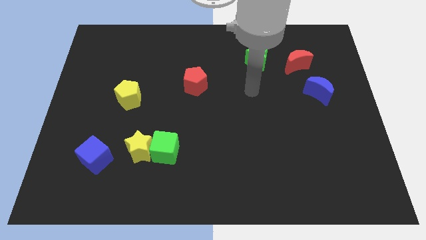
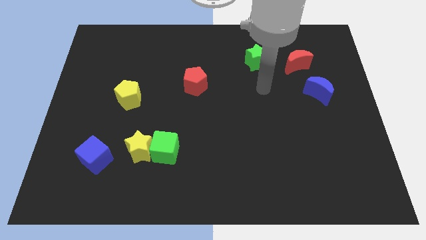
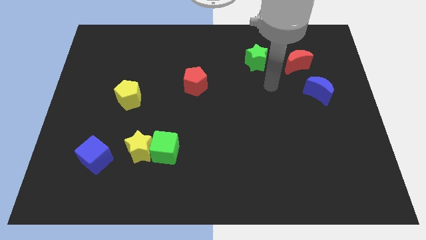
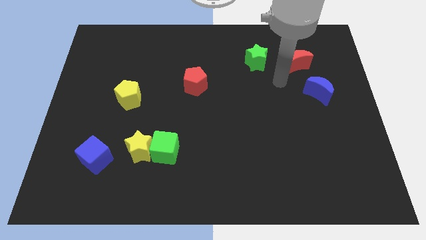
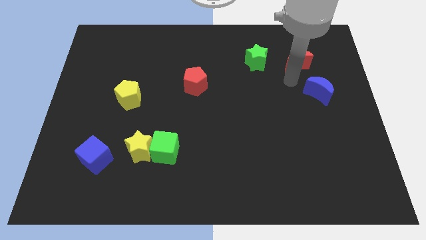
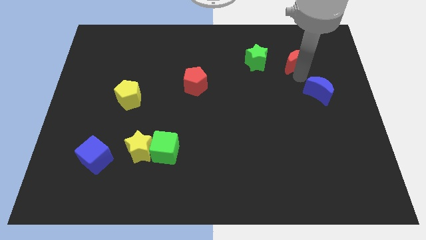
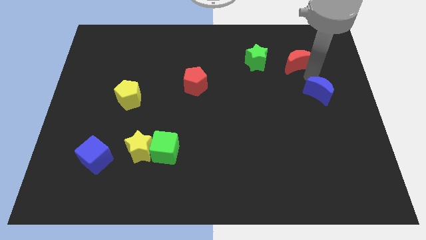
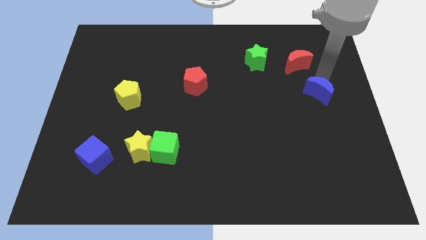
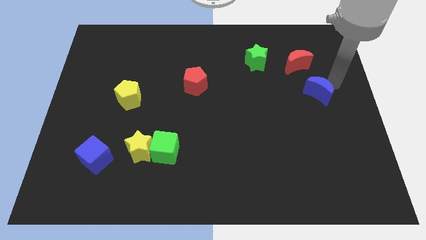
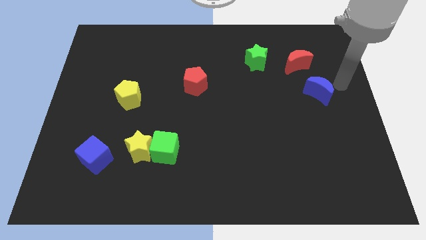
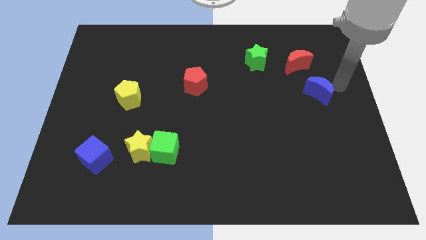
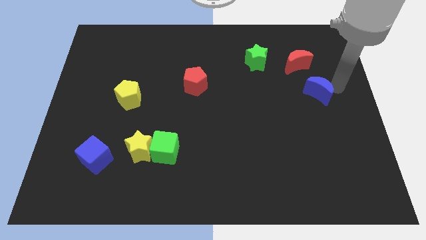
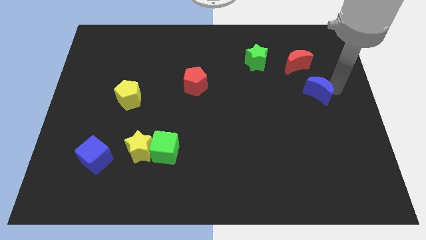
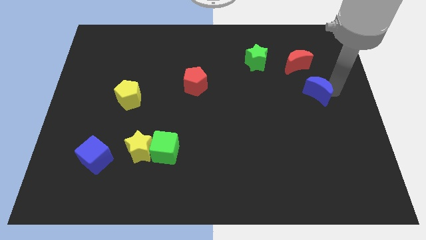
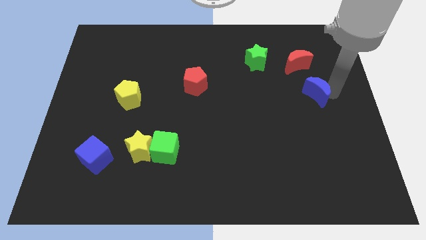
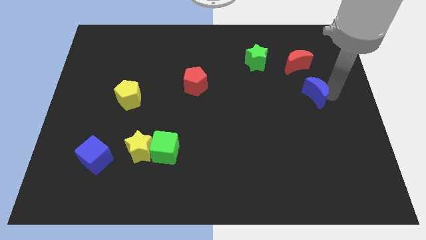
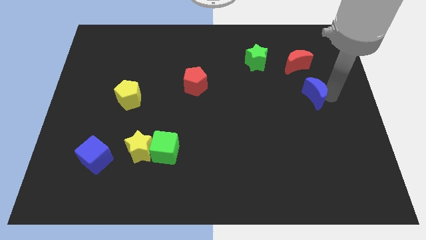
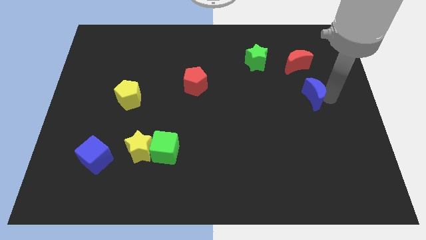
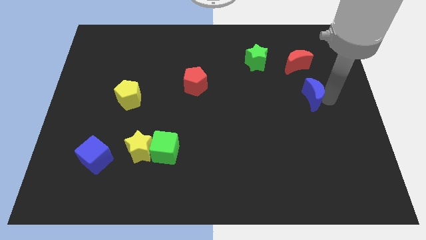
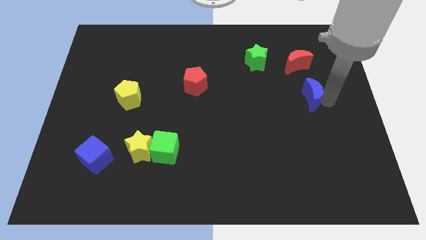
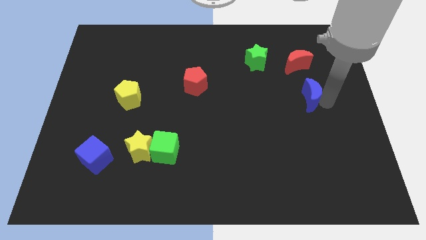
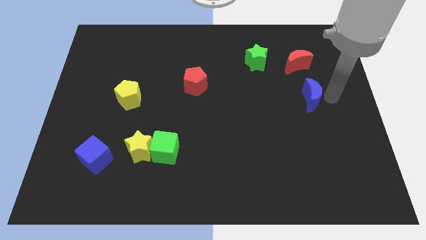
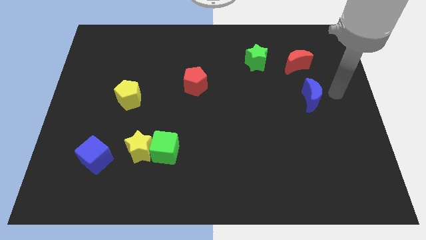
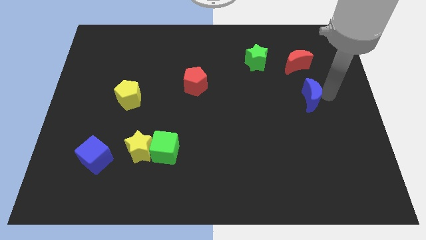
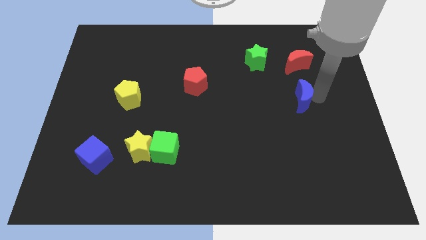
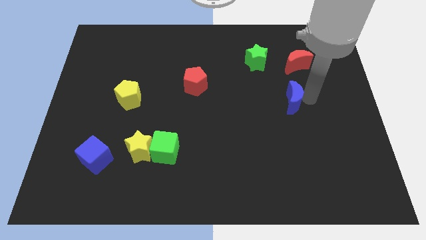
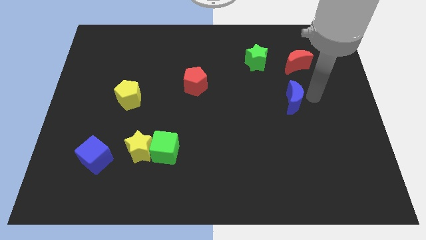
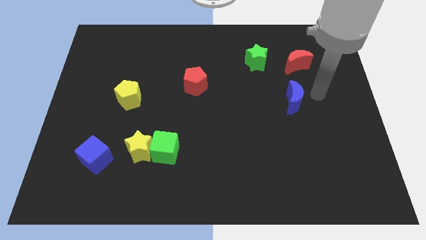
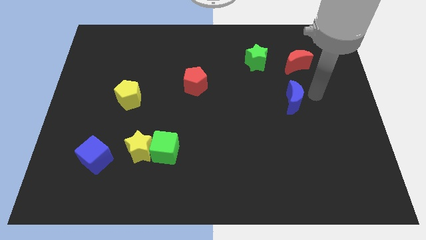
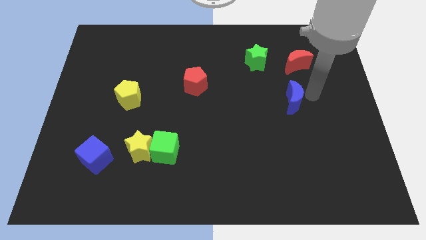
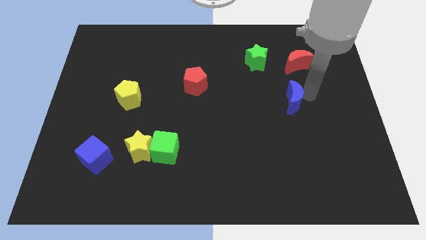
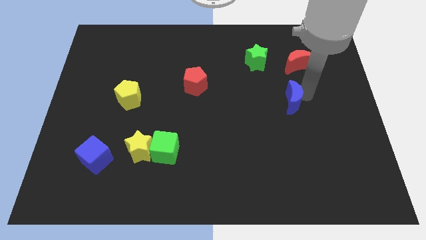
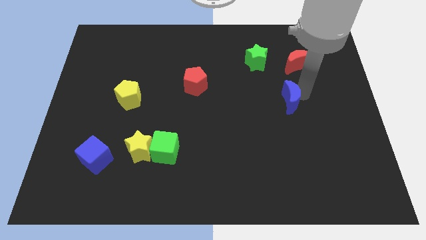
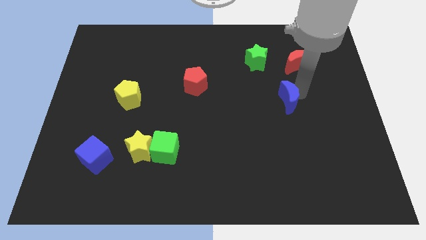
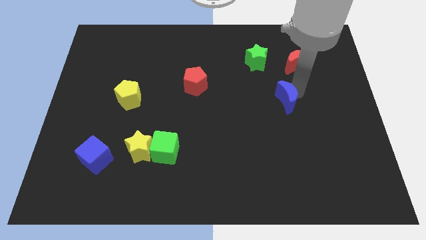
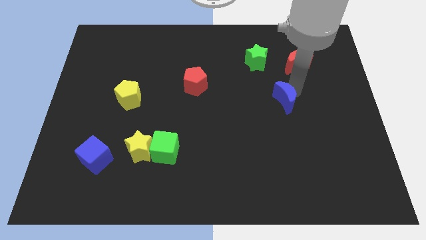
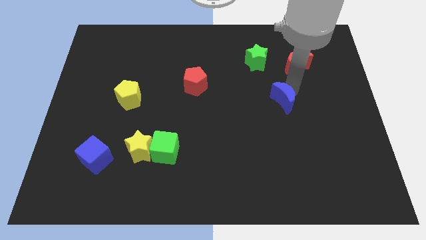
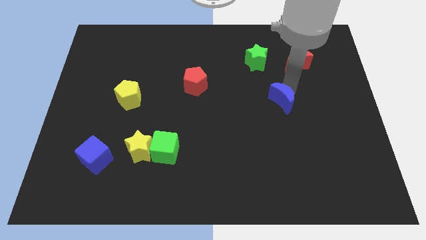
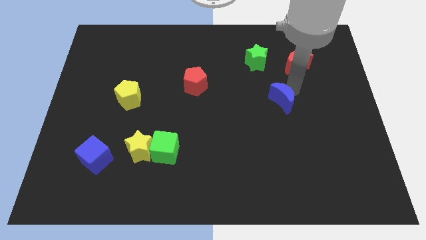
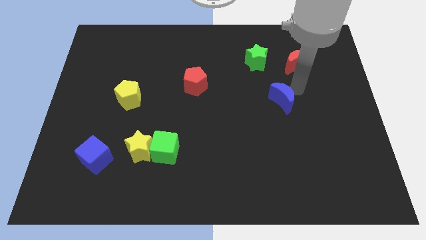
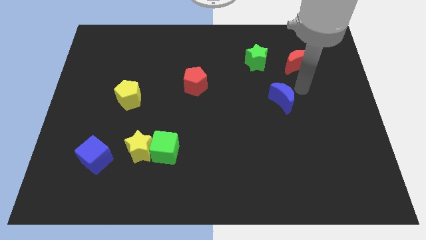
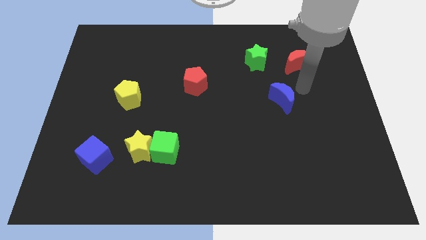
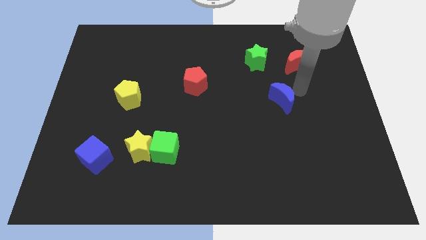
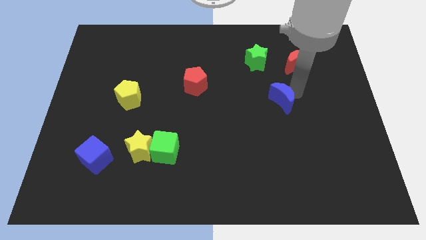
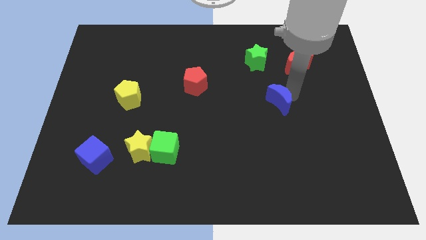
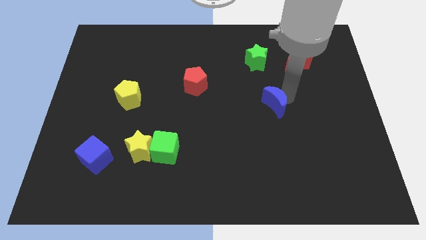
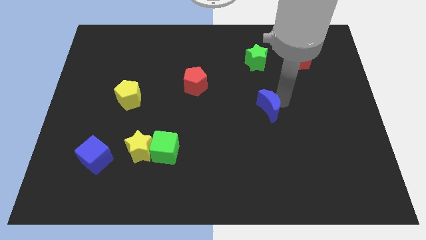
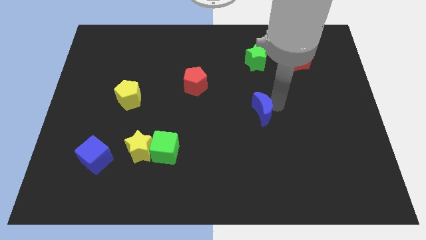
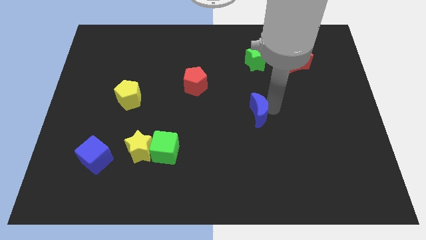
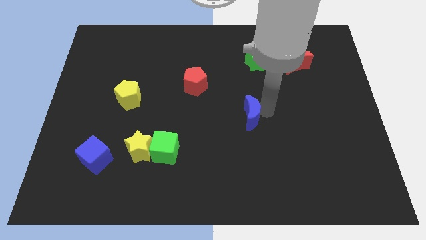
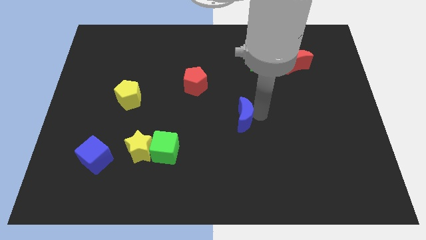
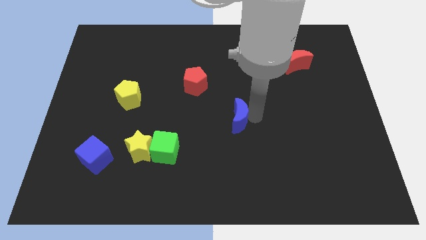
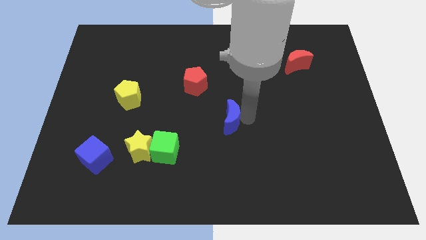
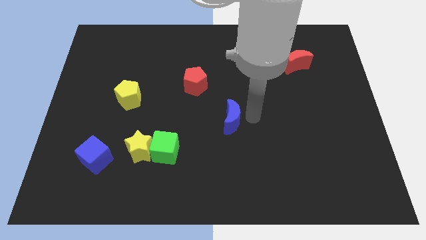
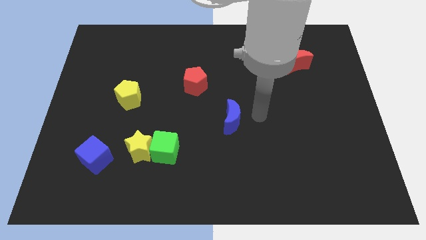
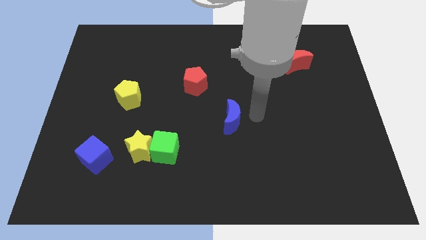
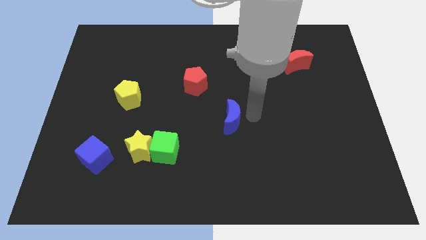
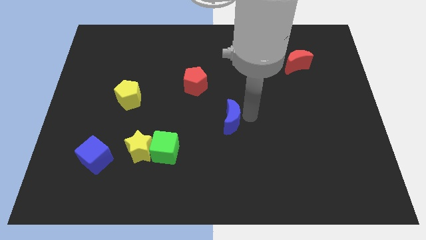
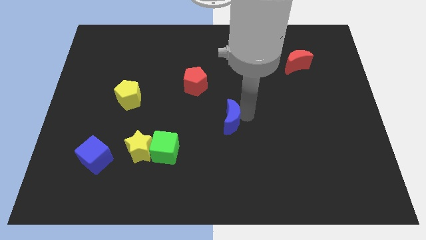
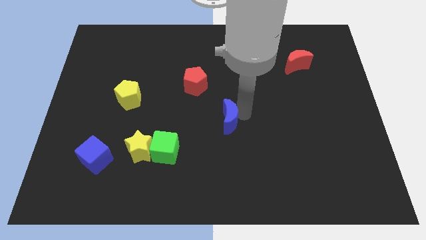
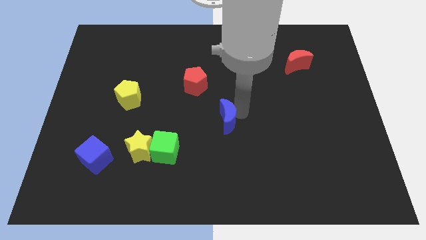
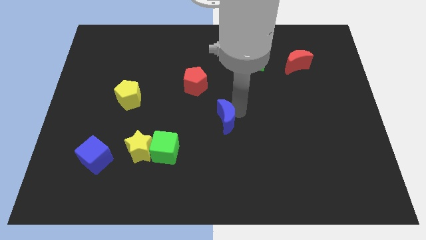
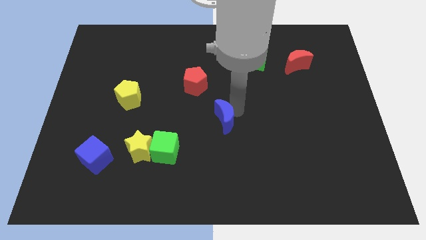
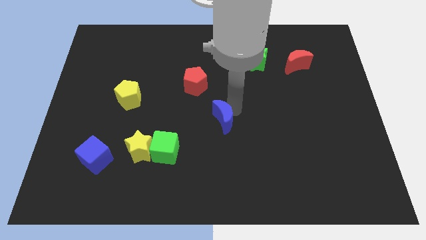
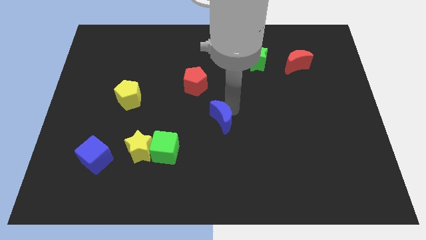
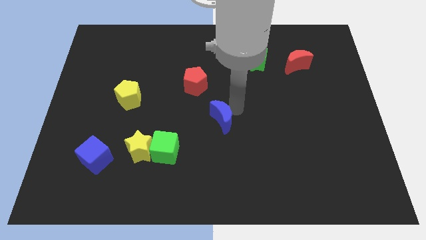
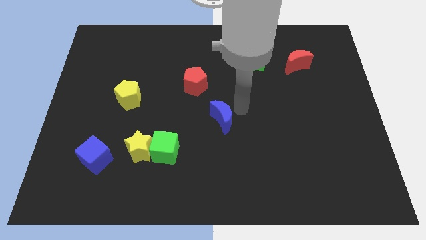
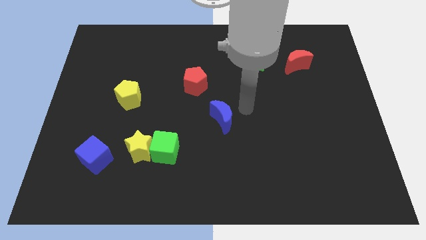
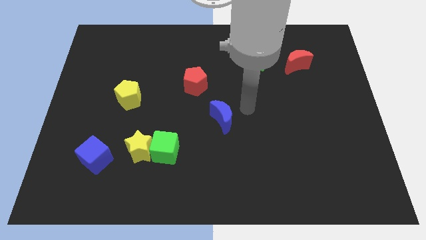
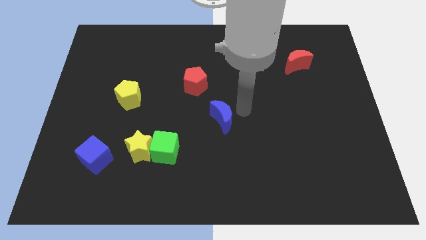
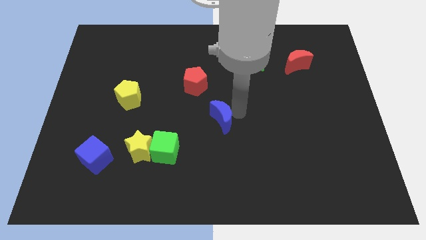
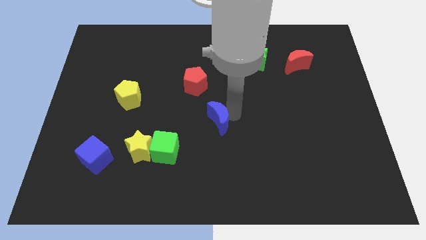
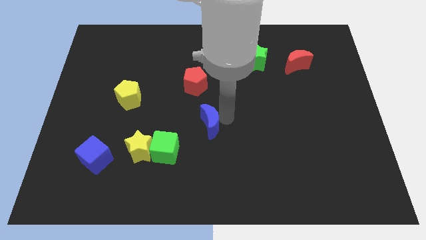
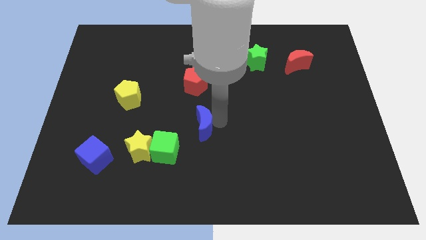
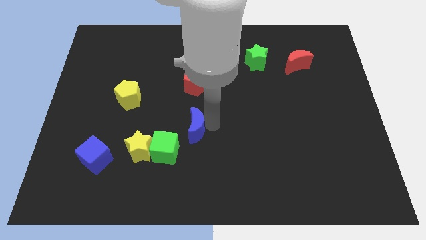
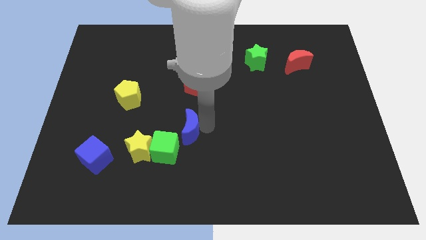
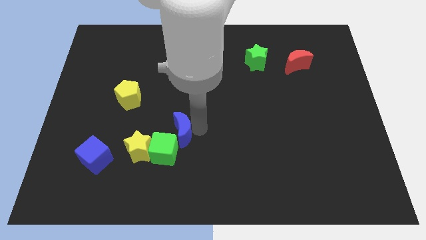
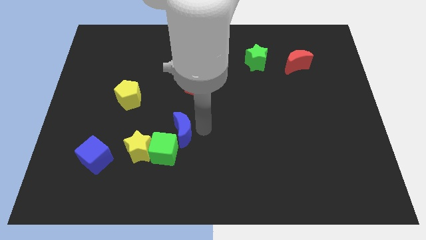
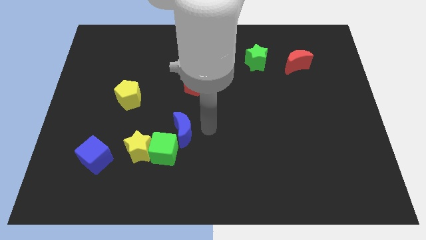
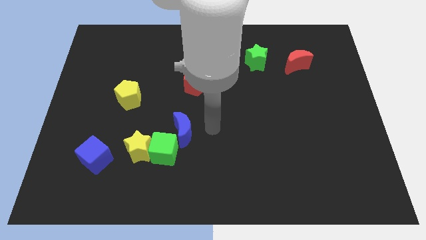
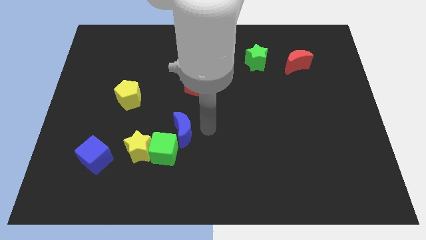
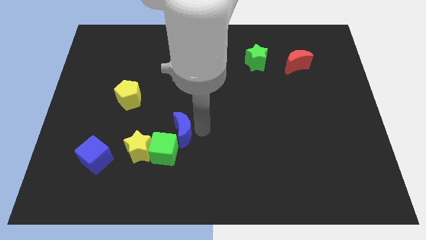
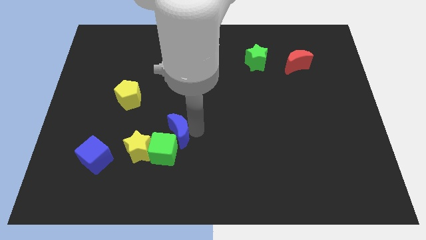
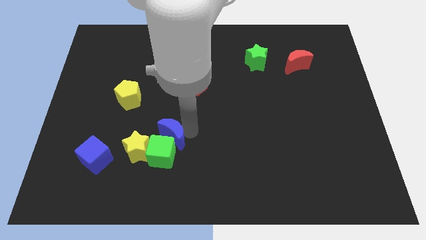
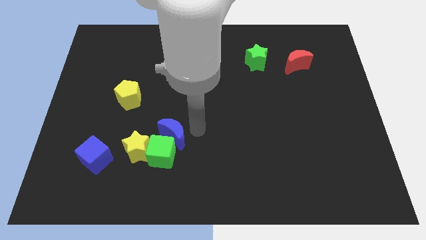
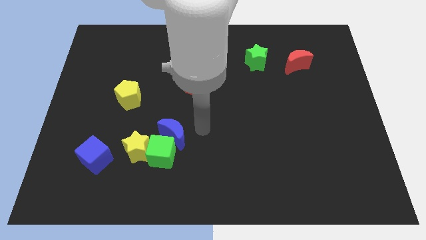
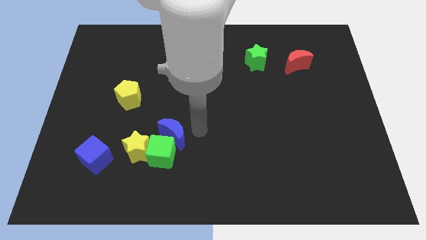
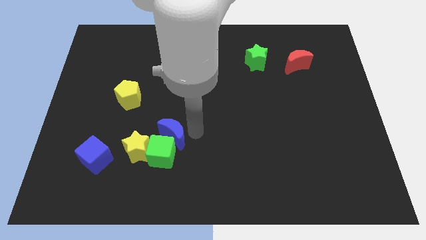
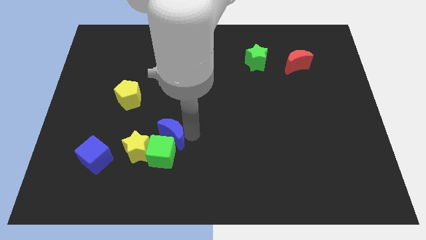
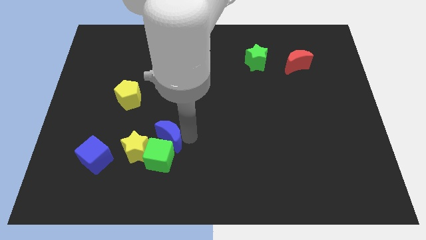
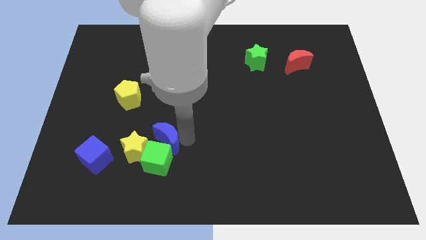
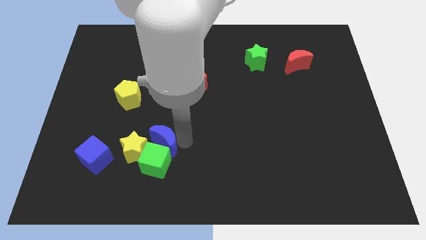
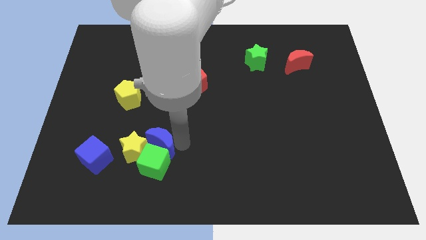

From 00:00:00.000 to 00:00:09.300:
push the blue moon to the yellow star
